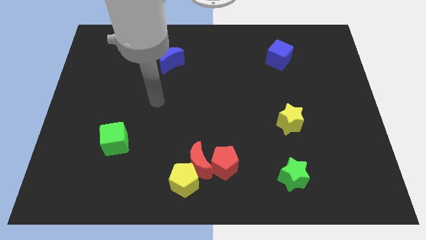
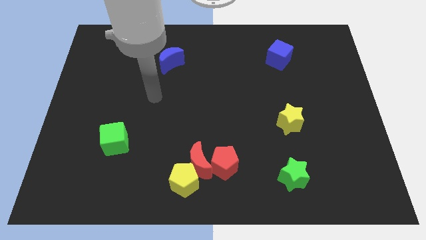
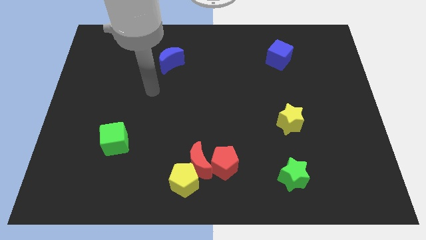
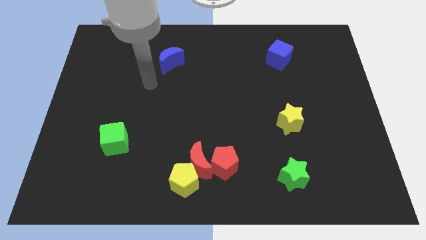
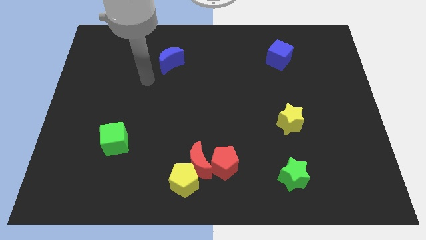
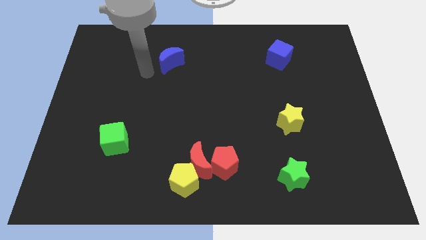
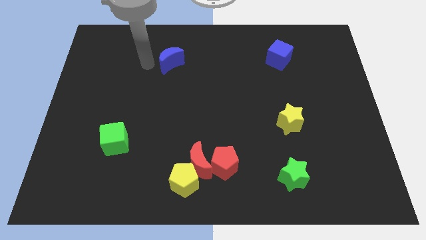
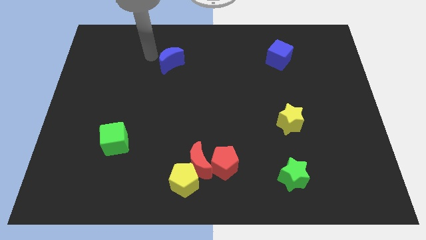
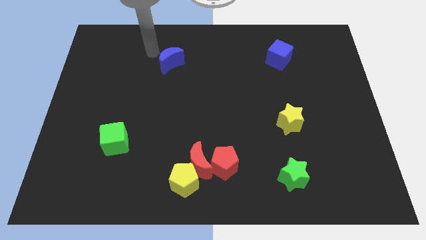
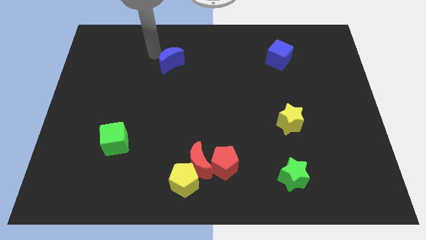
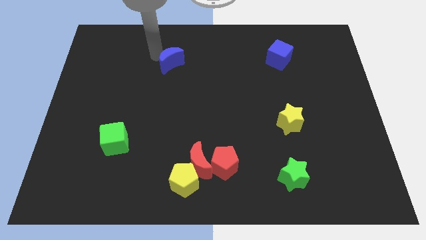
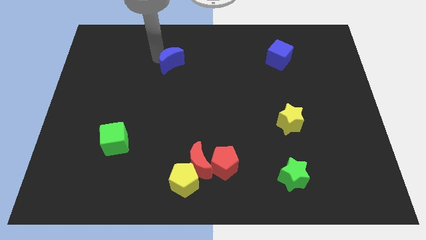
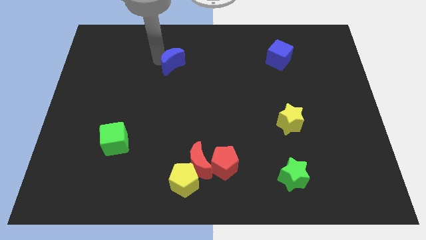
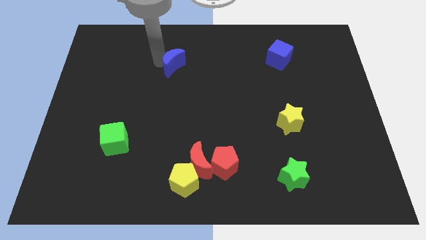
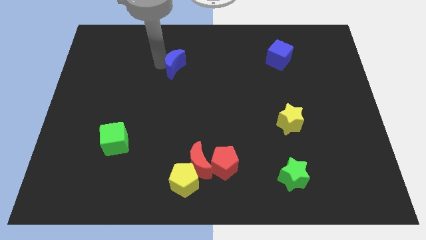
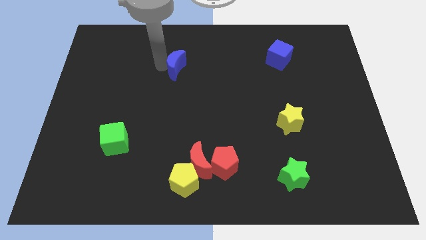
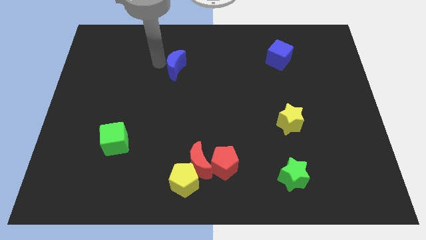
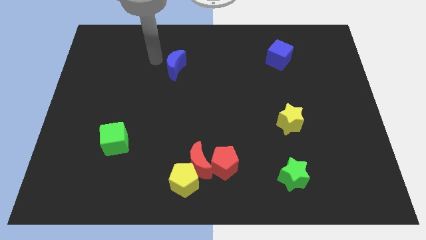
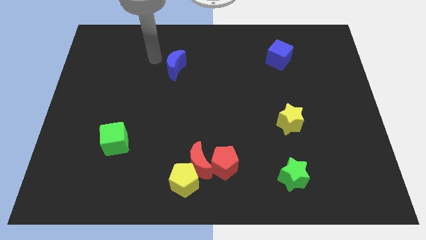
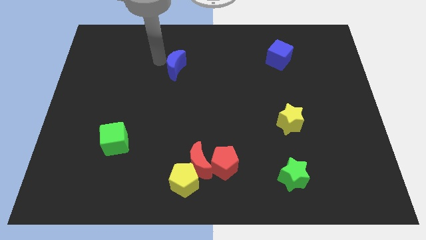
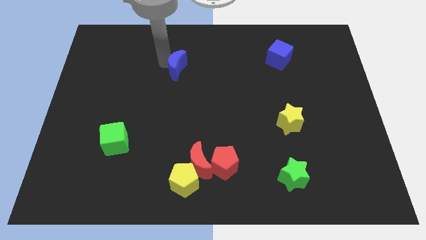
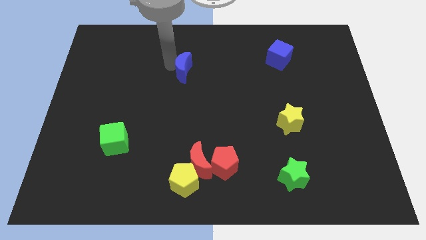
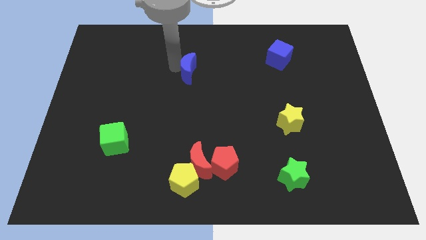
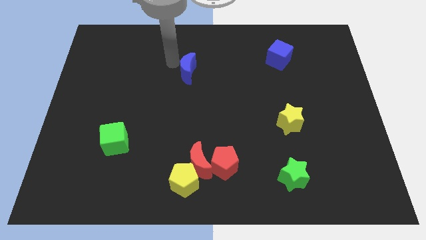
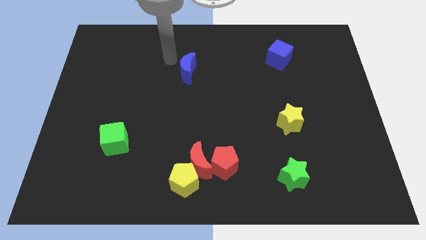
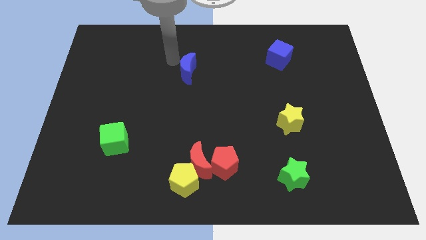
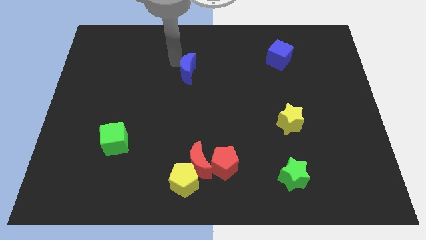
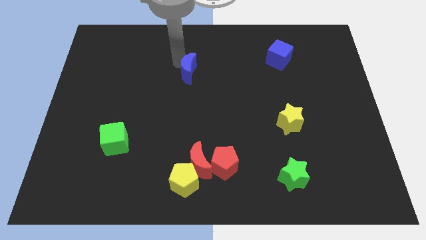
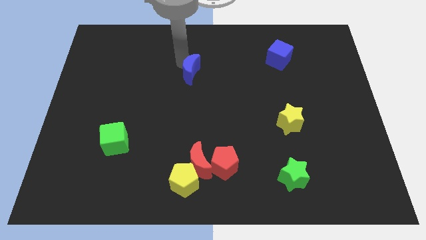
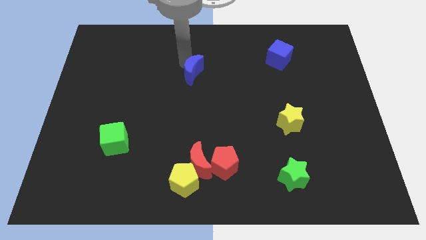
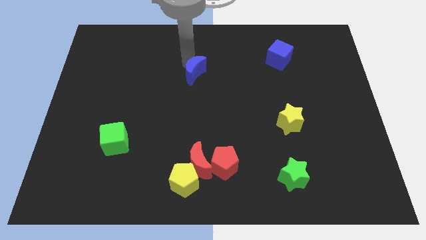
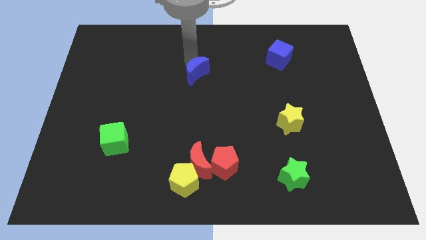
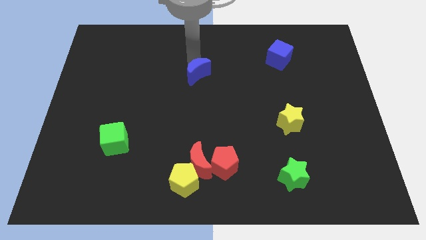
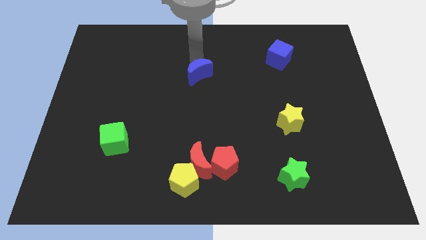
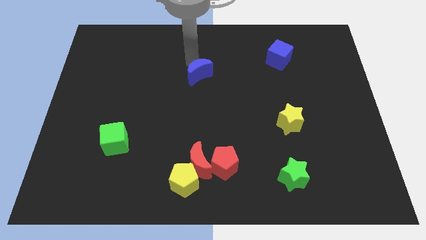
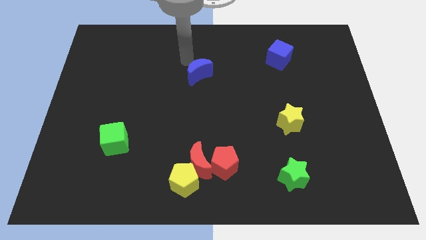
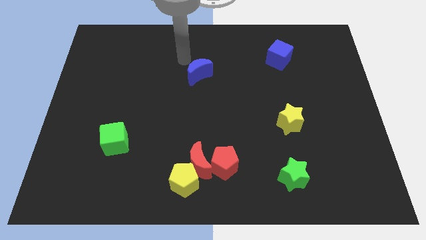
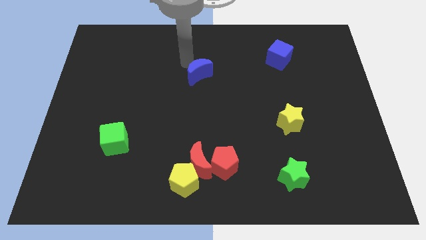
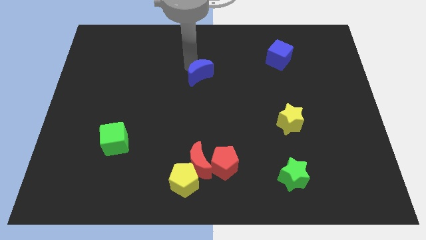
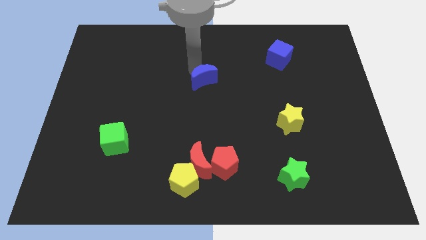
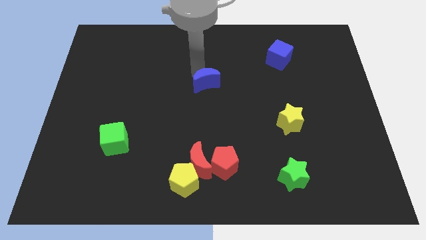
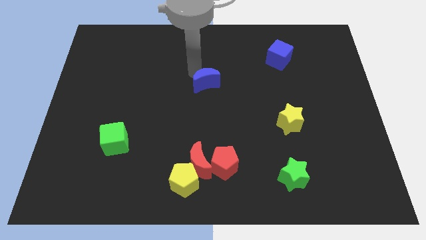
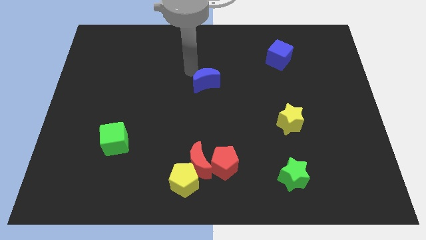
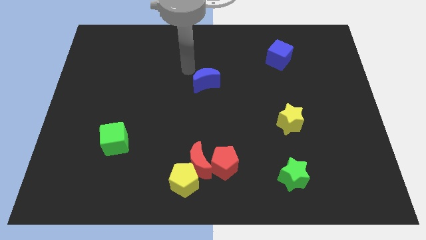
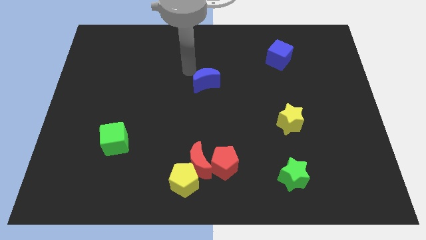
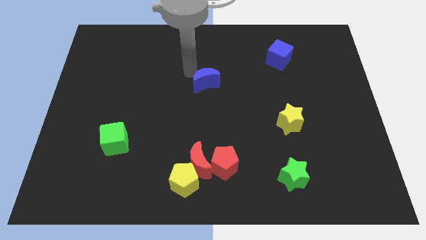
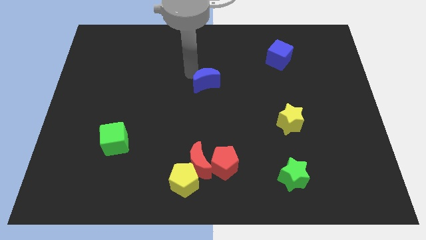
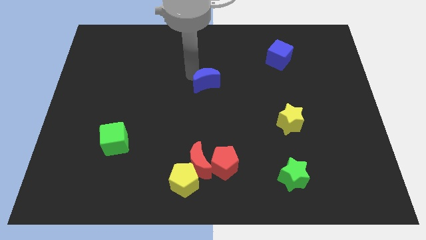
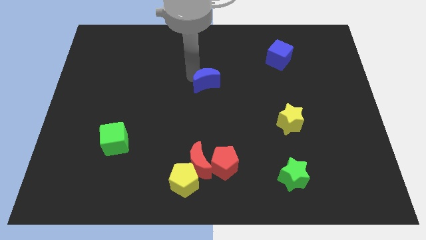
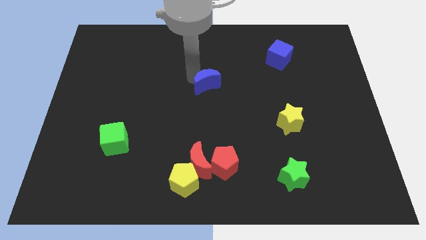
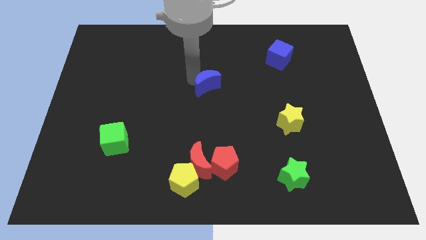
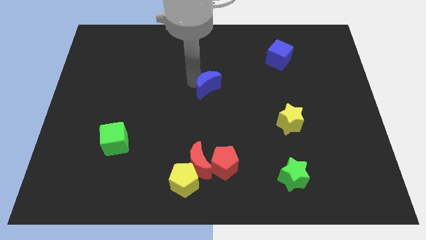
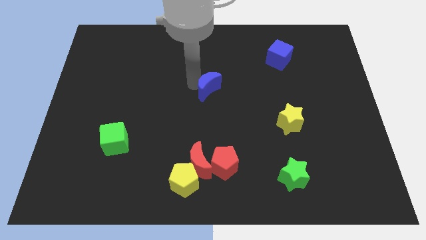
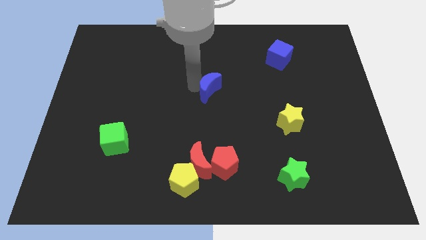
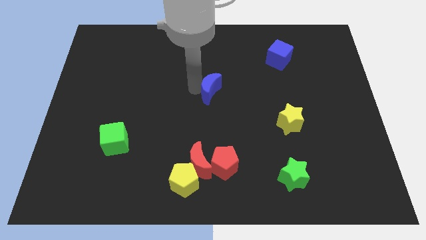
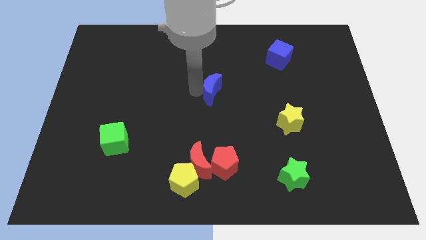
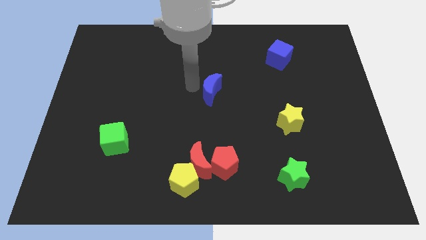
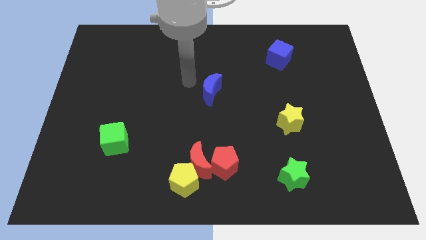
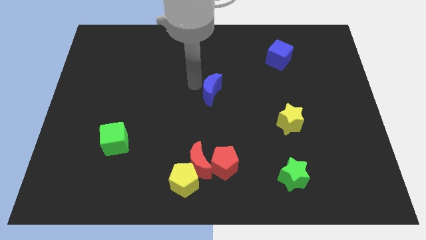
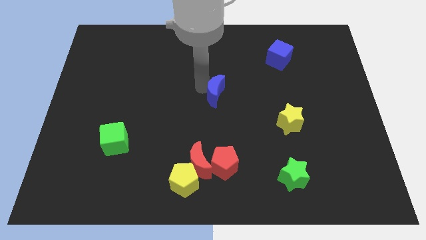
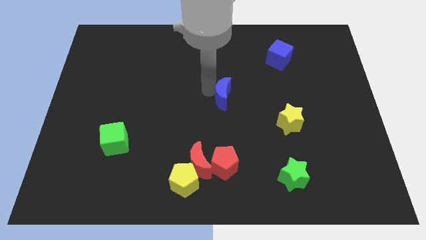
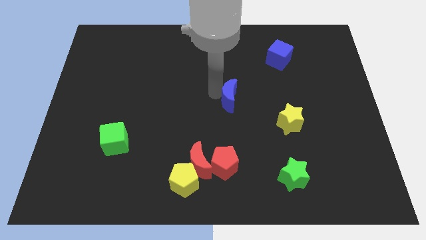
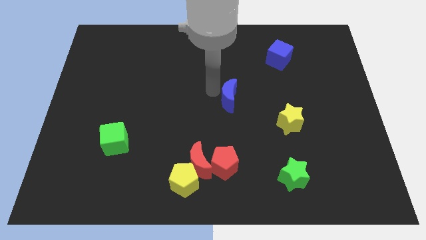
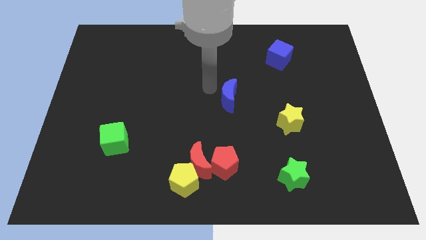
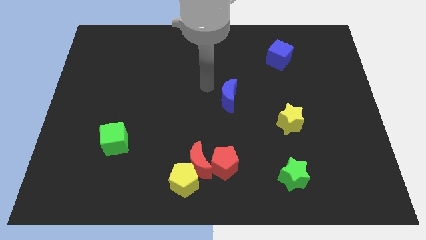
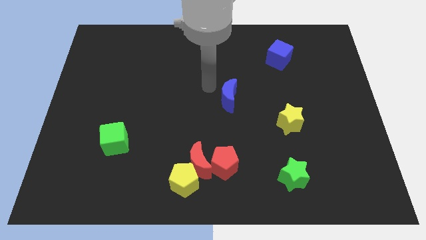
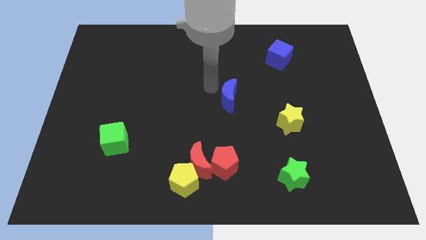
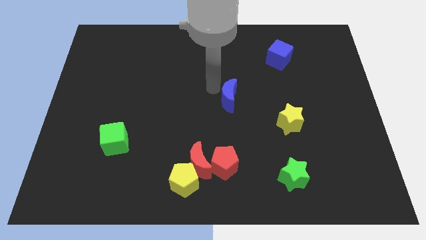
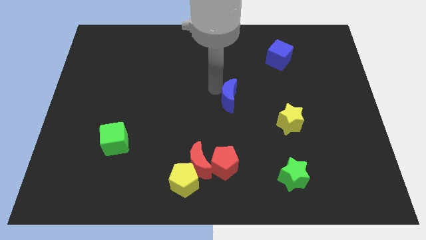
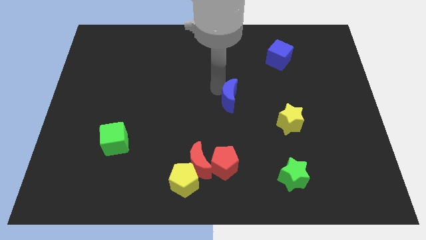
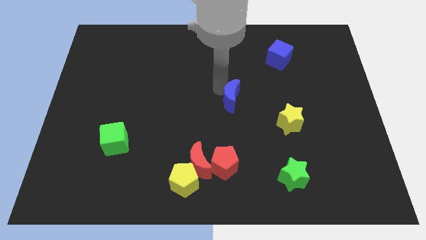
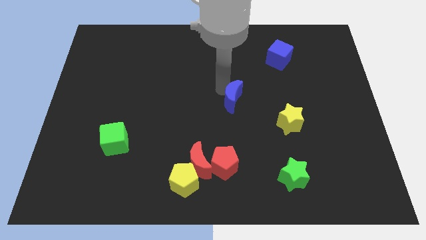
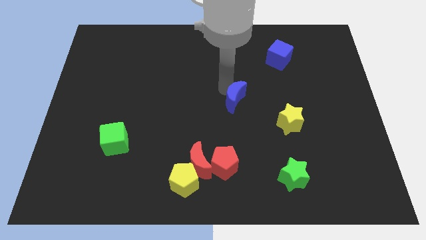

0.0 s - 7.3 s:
push the blue moon down and to the right

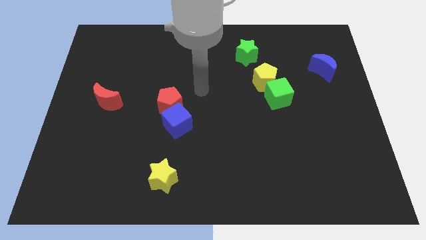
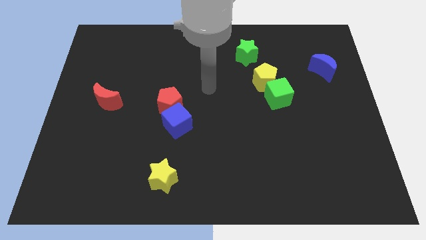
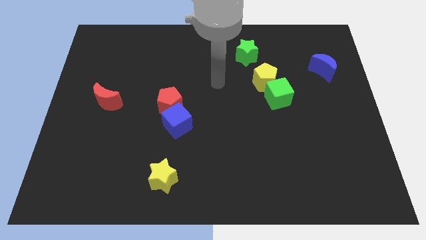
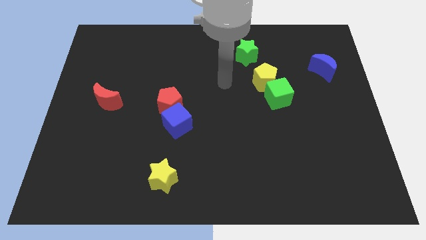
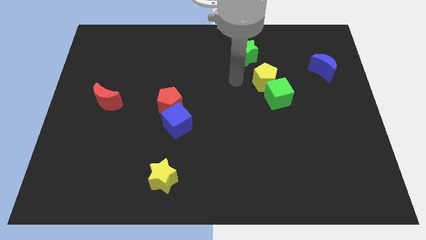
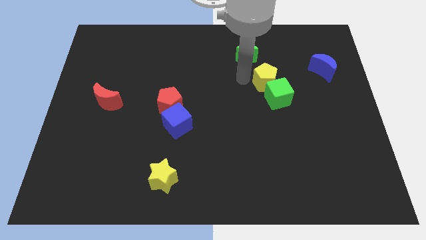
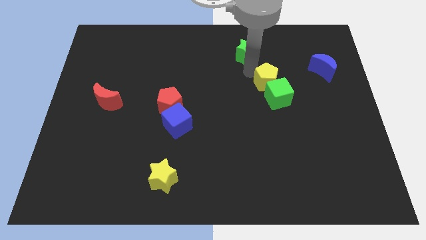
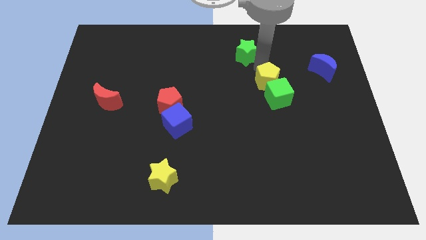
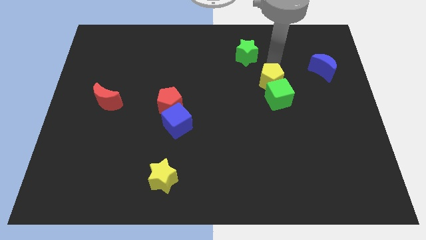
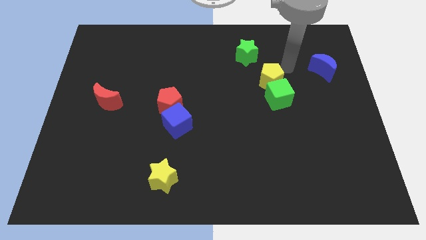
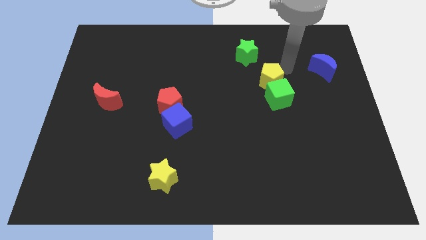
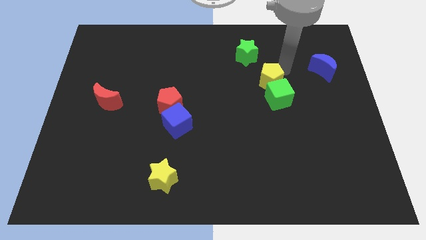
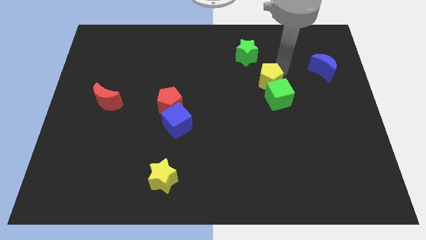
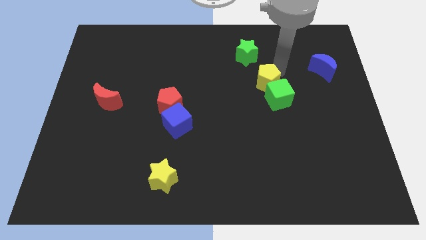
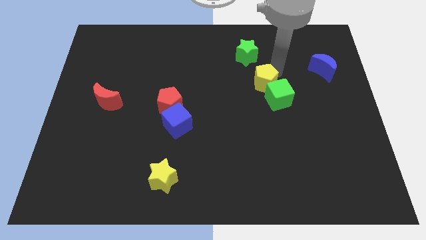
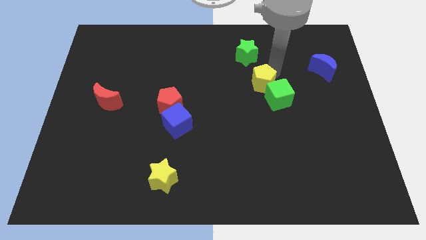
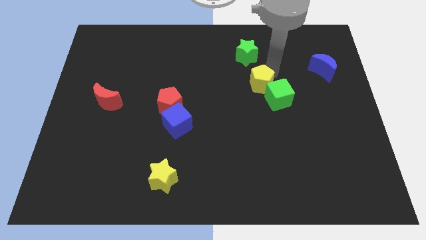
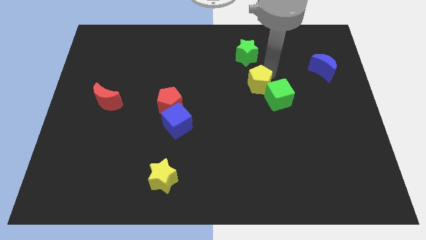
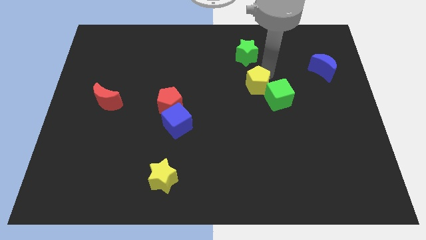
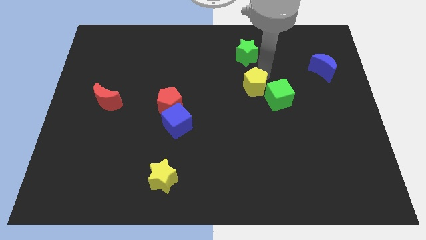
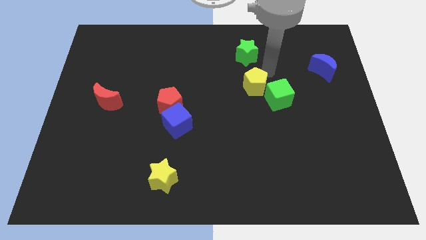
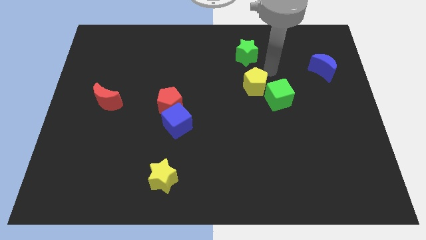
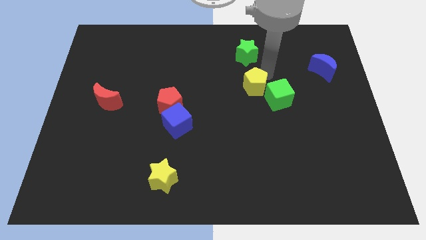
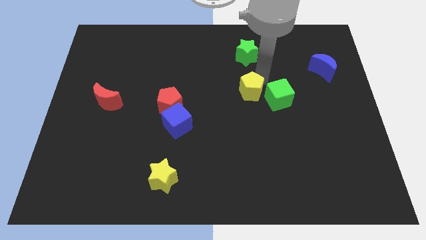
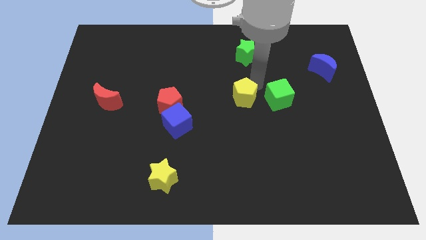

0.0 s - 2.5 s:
move the yellow pentagon diagonally down and left somewhat
